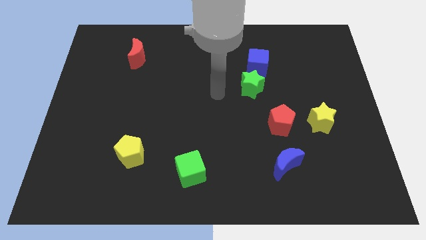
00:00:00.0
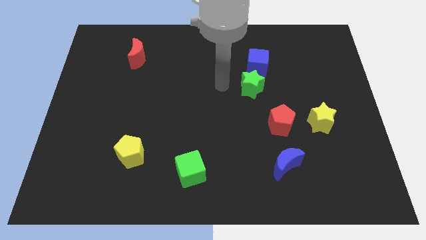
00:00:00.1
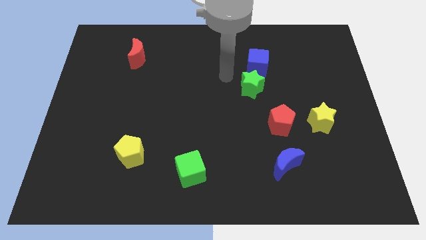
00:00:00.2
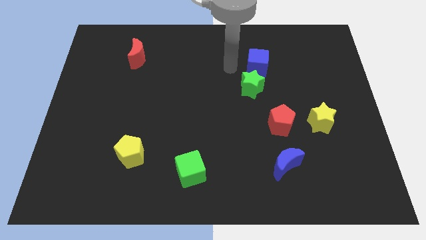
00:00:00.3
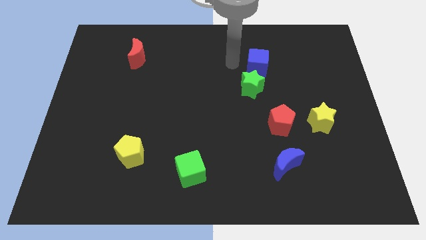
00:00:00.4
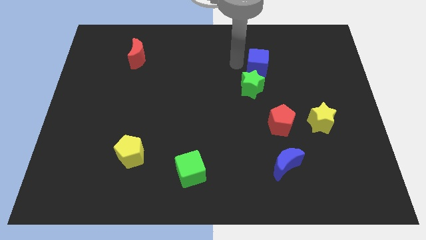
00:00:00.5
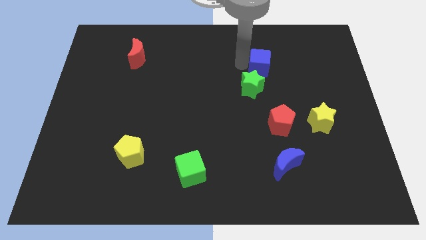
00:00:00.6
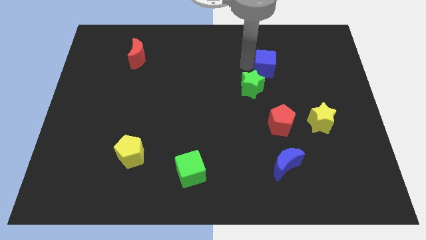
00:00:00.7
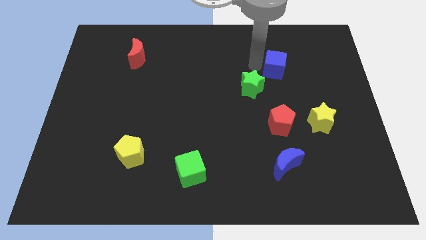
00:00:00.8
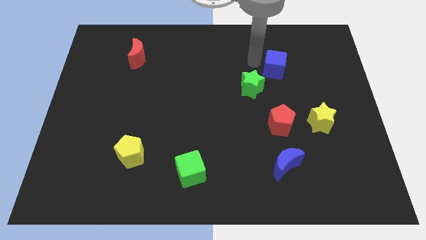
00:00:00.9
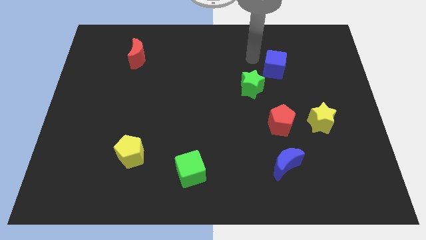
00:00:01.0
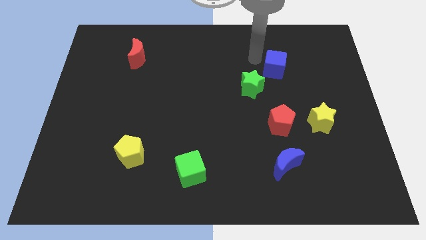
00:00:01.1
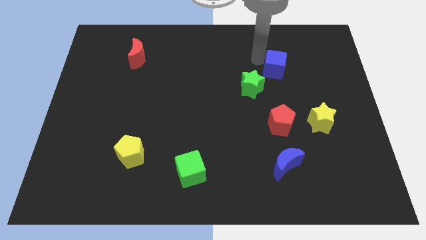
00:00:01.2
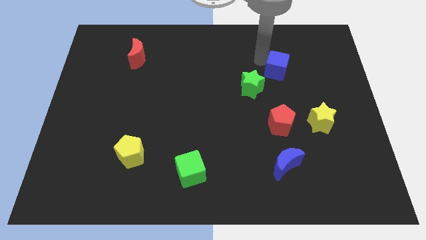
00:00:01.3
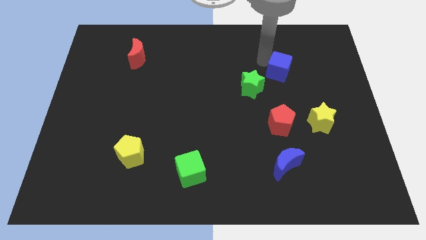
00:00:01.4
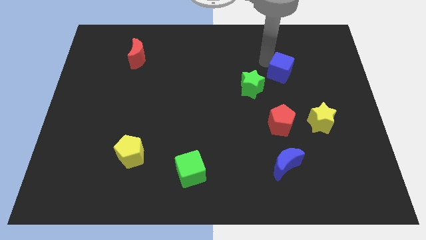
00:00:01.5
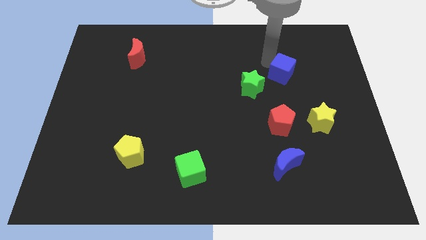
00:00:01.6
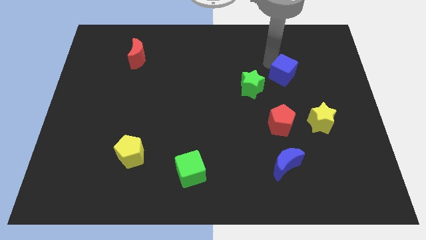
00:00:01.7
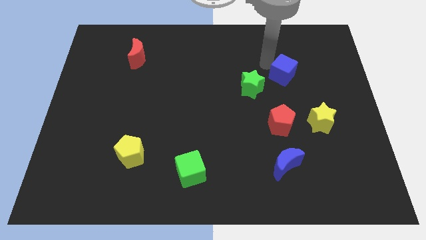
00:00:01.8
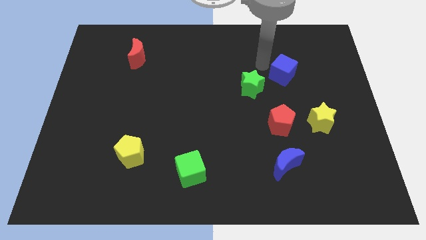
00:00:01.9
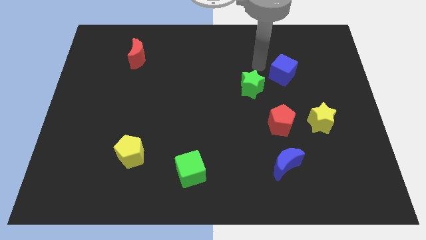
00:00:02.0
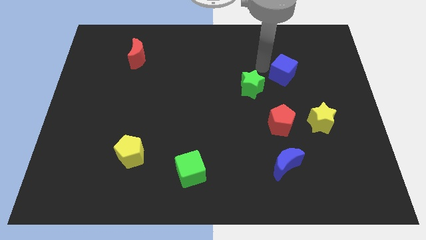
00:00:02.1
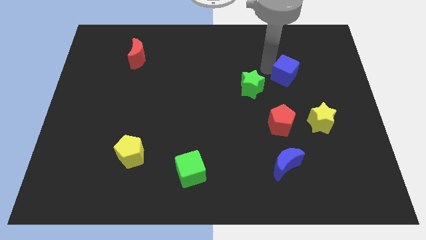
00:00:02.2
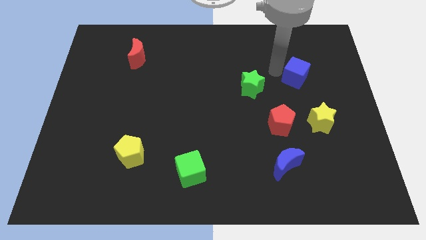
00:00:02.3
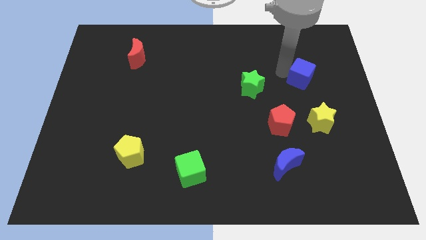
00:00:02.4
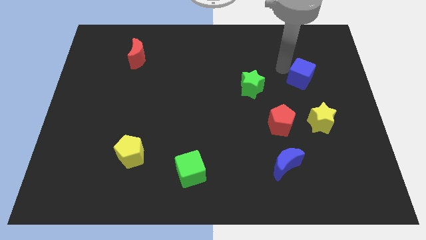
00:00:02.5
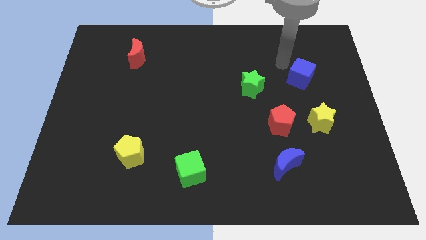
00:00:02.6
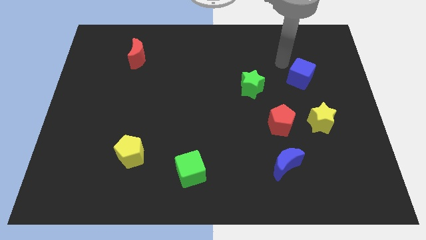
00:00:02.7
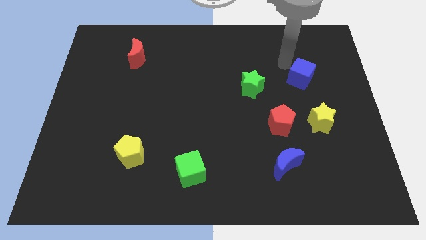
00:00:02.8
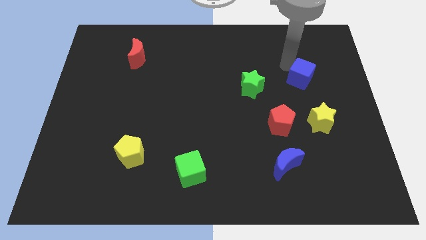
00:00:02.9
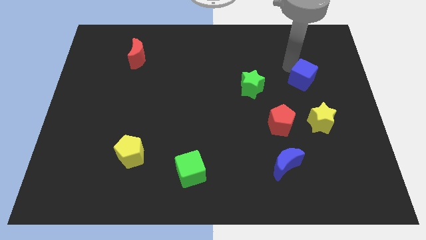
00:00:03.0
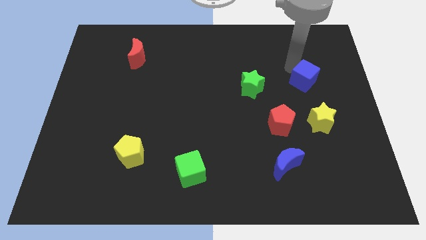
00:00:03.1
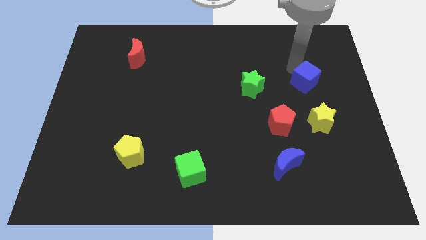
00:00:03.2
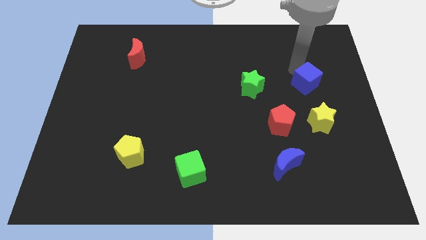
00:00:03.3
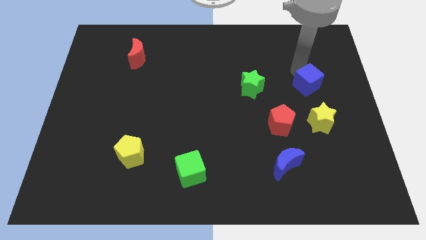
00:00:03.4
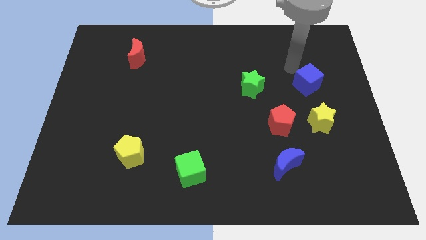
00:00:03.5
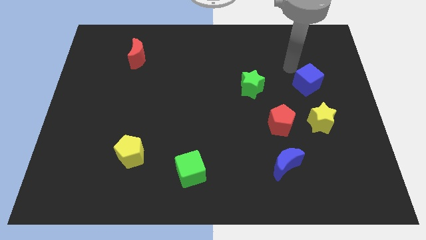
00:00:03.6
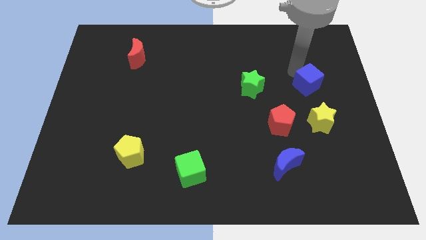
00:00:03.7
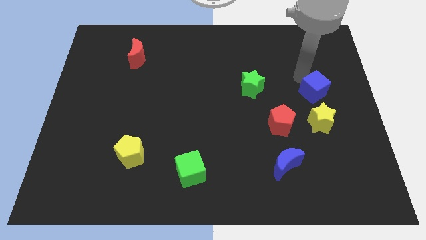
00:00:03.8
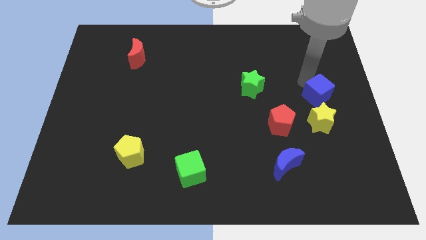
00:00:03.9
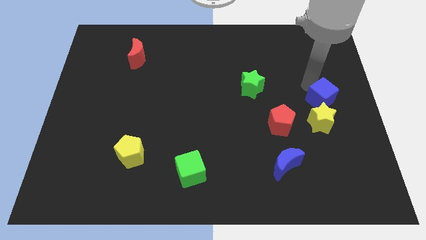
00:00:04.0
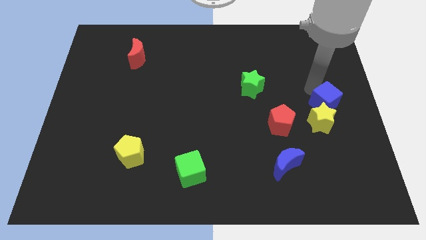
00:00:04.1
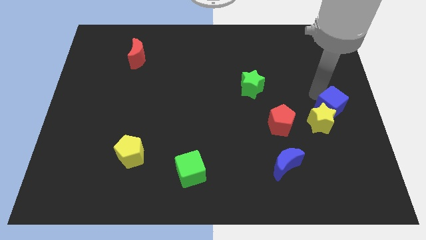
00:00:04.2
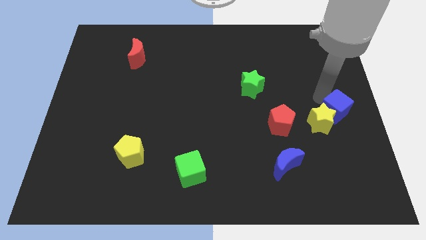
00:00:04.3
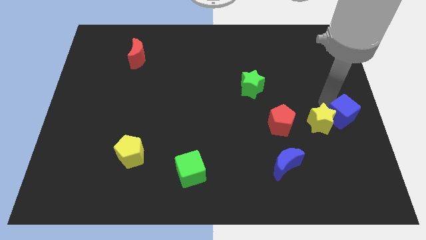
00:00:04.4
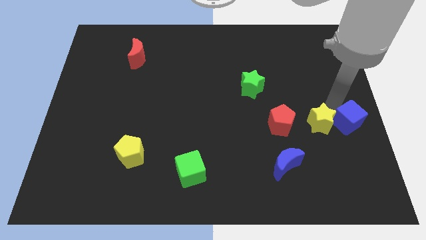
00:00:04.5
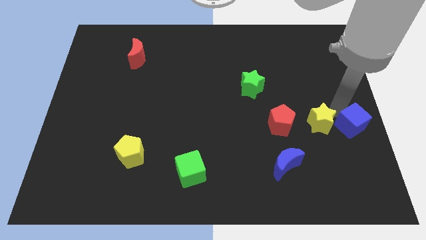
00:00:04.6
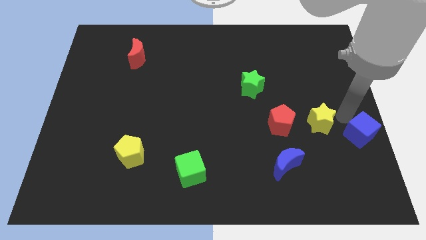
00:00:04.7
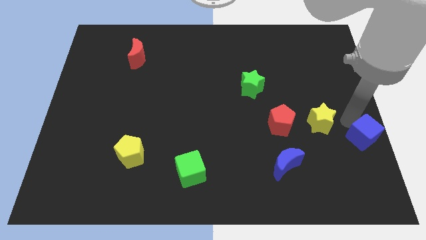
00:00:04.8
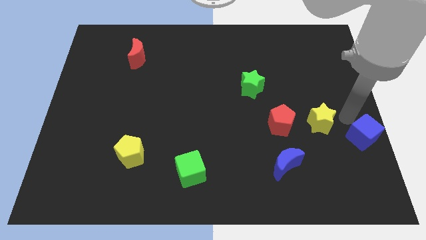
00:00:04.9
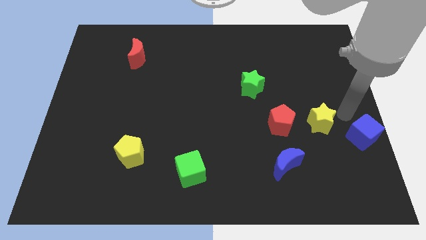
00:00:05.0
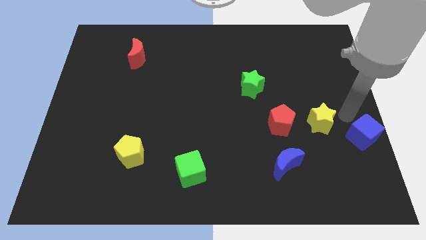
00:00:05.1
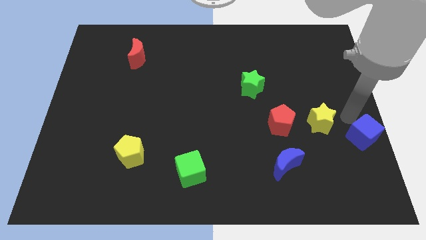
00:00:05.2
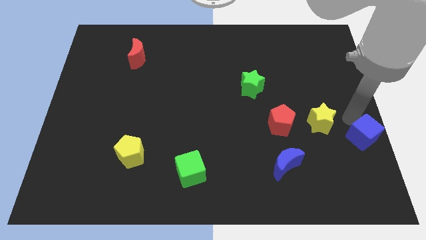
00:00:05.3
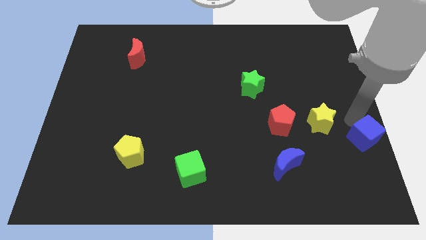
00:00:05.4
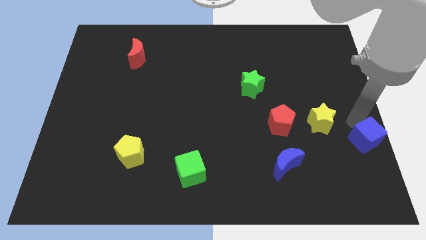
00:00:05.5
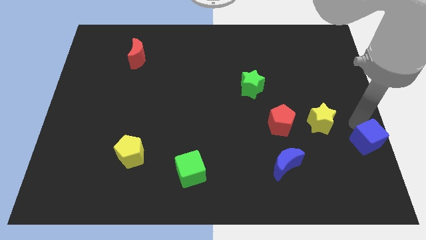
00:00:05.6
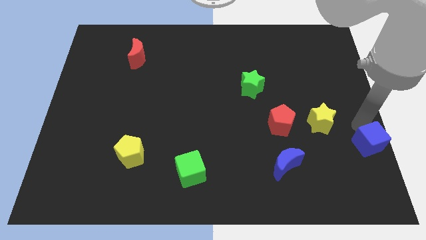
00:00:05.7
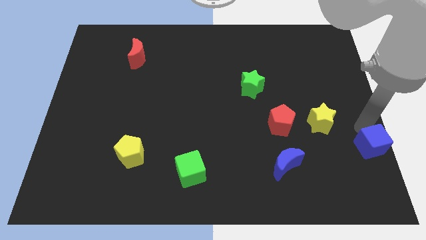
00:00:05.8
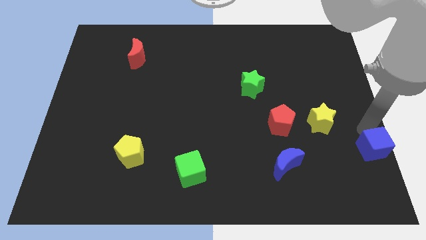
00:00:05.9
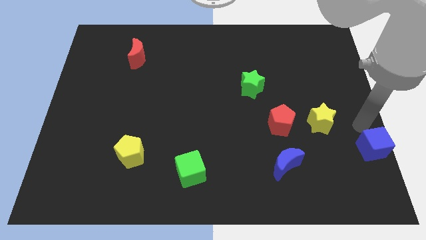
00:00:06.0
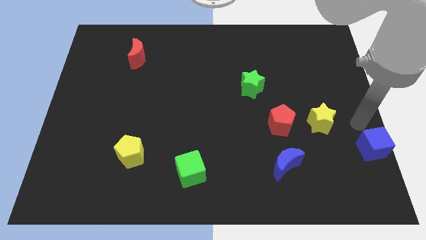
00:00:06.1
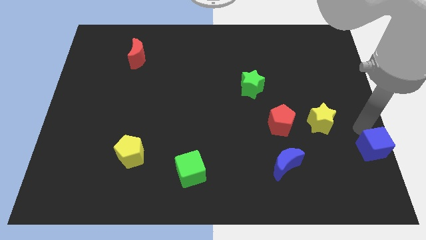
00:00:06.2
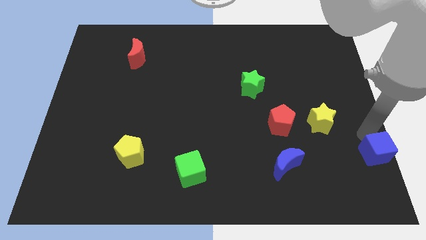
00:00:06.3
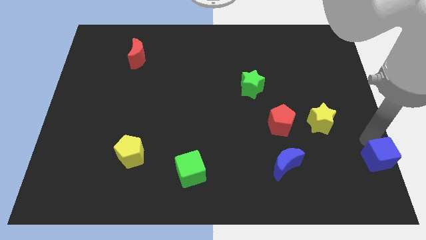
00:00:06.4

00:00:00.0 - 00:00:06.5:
put the blue cube to the bottom right
